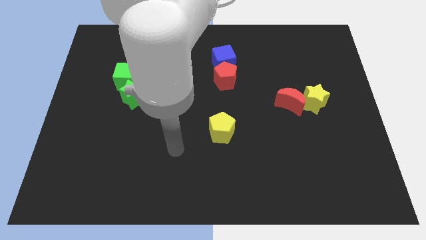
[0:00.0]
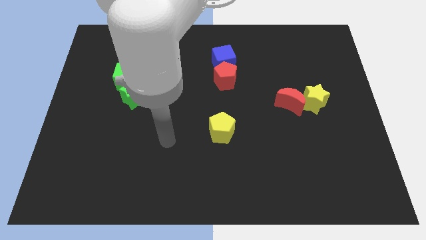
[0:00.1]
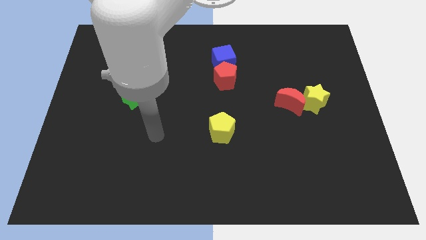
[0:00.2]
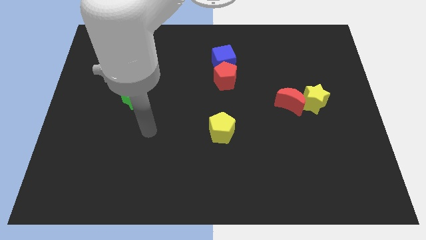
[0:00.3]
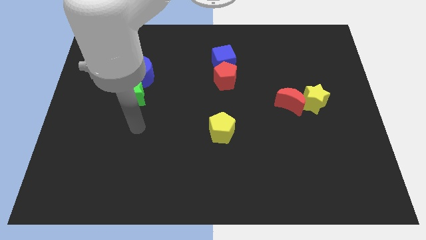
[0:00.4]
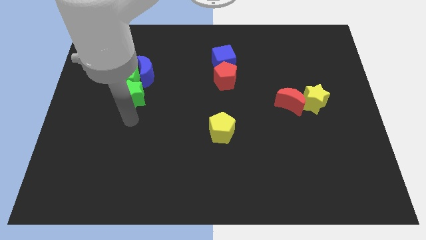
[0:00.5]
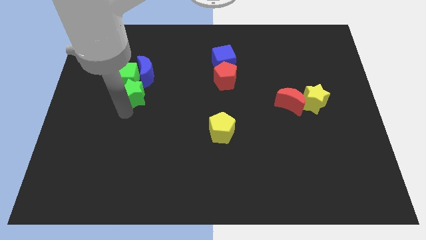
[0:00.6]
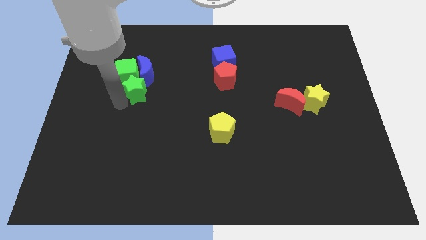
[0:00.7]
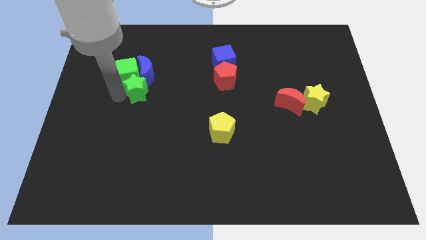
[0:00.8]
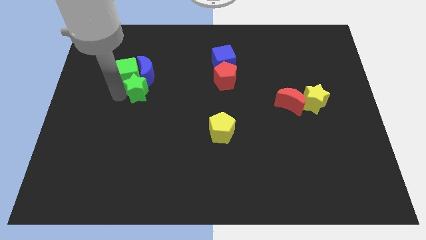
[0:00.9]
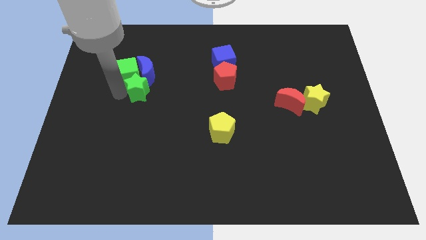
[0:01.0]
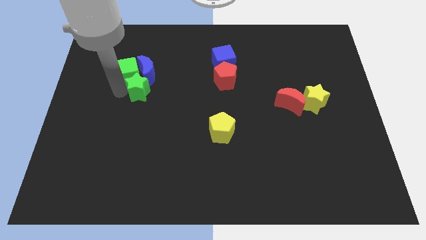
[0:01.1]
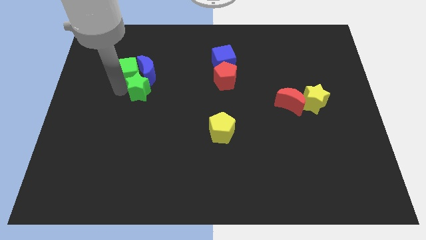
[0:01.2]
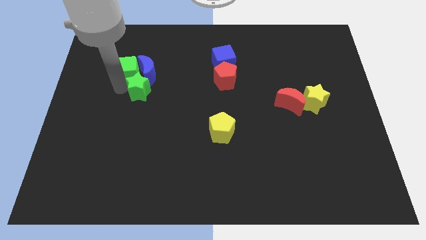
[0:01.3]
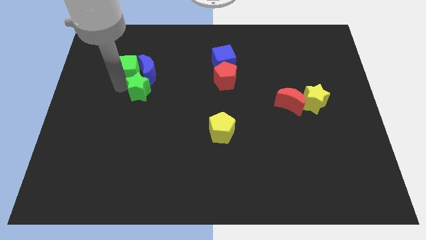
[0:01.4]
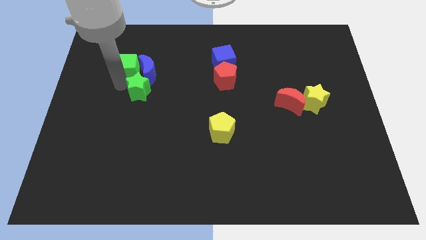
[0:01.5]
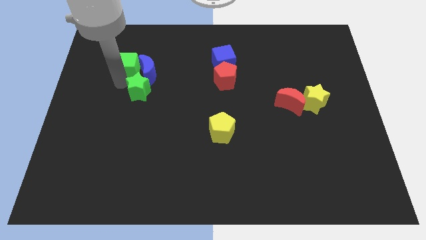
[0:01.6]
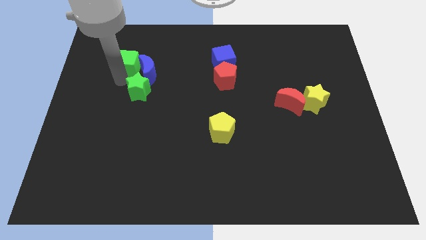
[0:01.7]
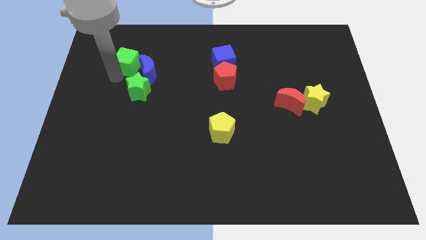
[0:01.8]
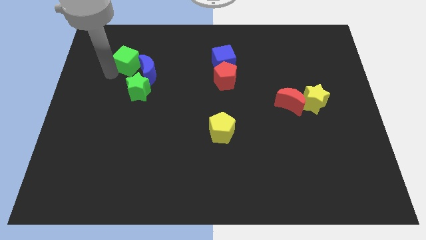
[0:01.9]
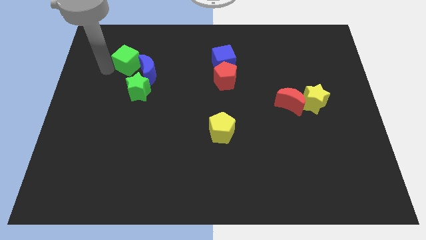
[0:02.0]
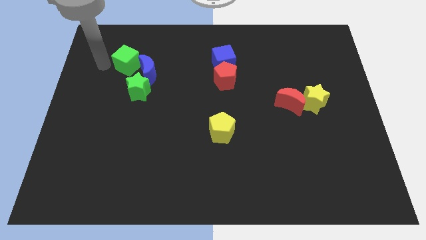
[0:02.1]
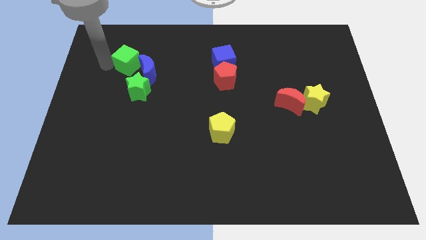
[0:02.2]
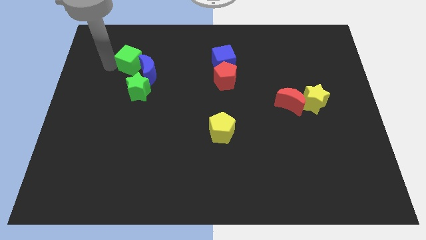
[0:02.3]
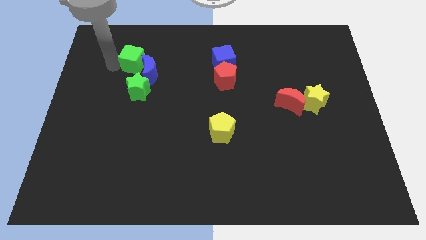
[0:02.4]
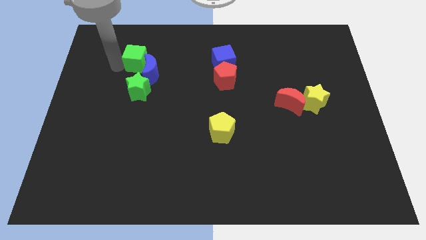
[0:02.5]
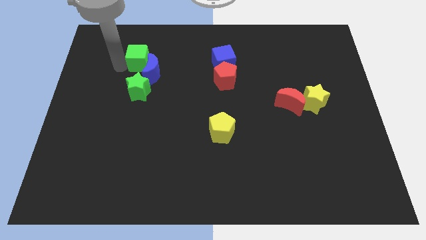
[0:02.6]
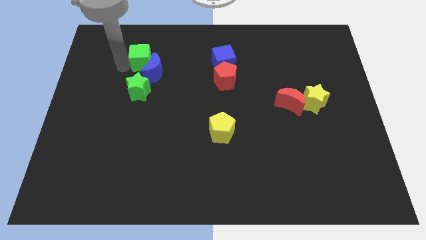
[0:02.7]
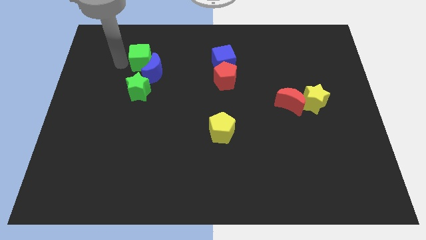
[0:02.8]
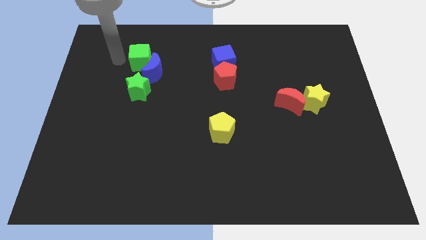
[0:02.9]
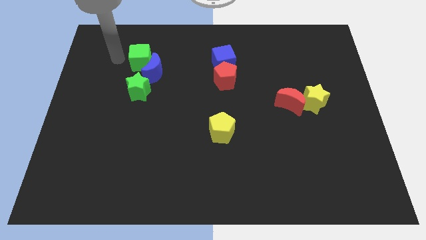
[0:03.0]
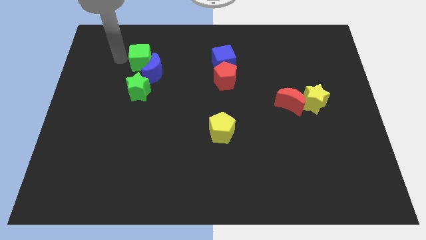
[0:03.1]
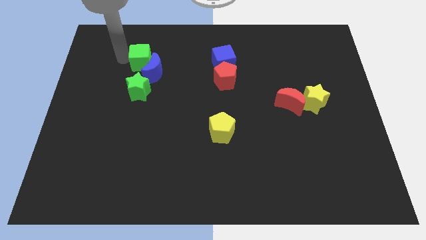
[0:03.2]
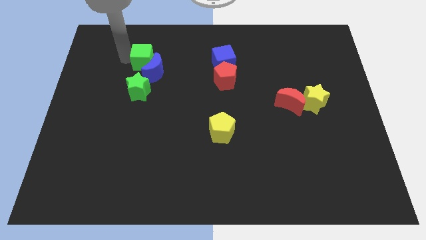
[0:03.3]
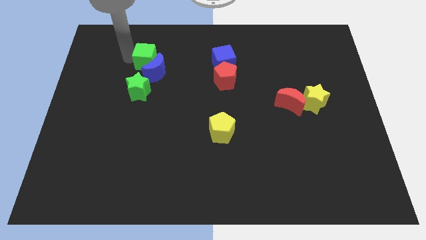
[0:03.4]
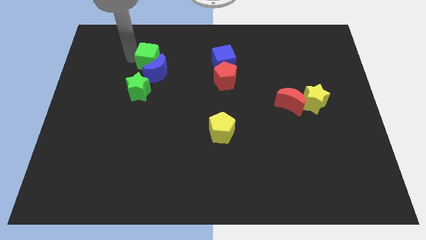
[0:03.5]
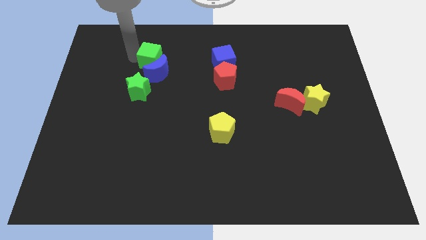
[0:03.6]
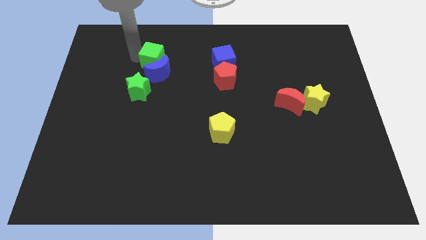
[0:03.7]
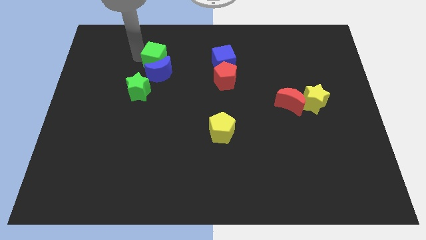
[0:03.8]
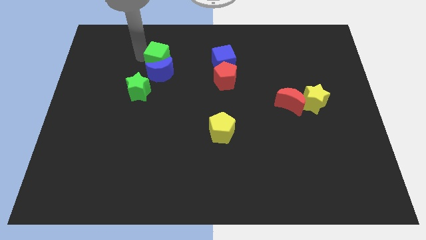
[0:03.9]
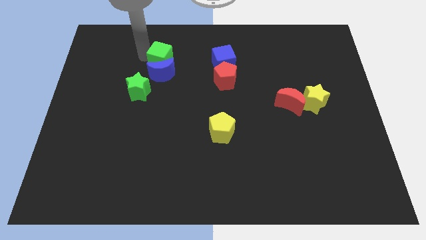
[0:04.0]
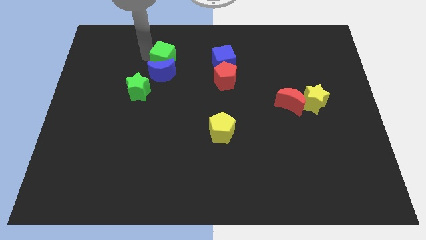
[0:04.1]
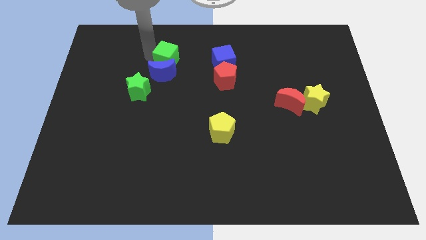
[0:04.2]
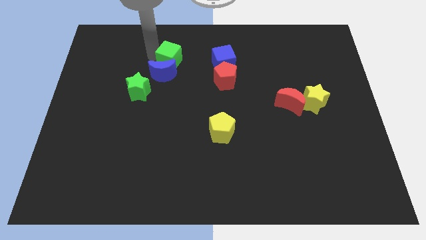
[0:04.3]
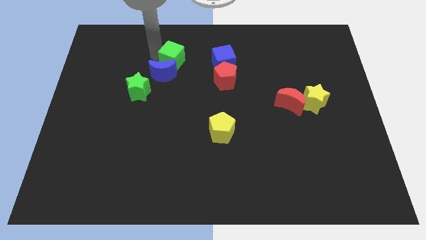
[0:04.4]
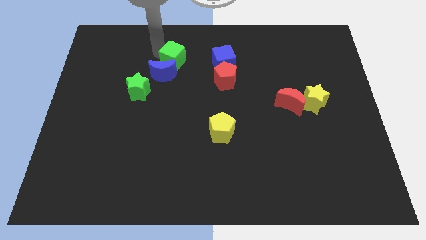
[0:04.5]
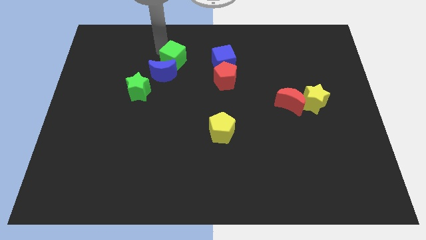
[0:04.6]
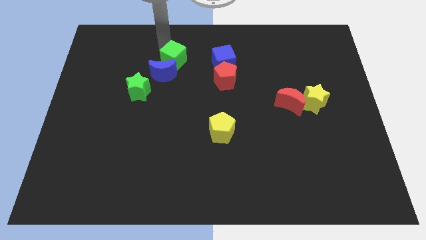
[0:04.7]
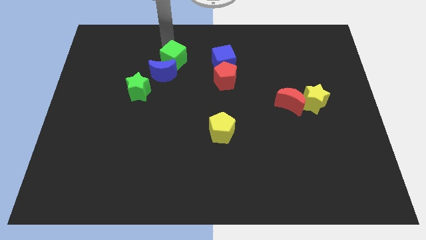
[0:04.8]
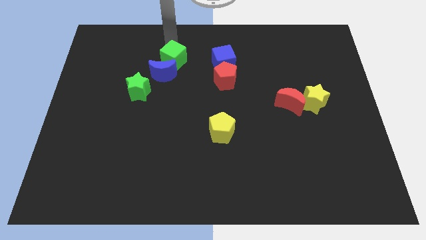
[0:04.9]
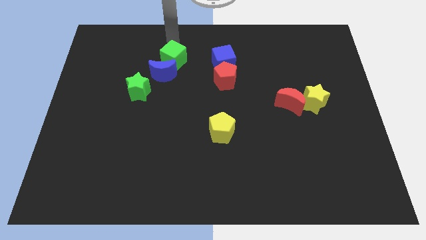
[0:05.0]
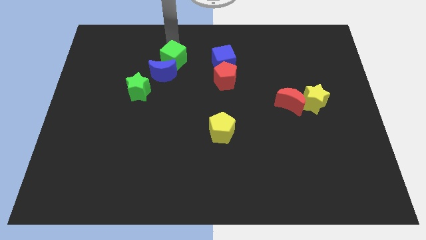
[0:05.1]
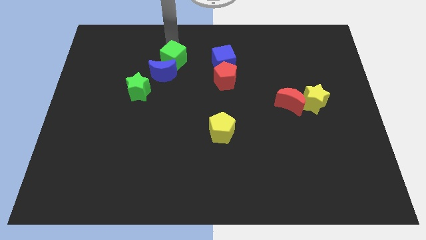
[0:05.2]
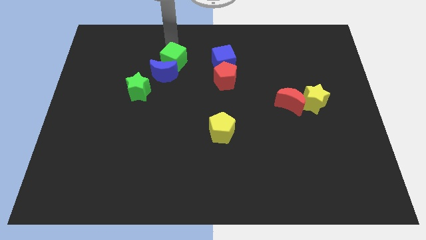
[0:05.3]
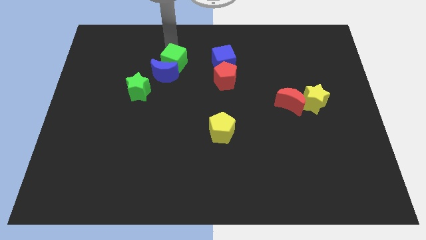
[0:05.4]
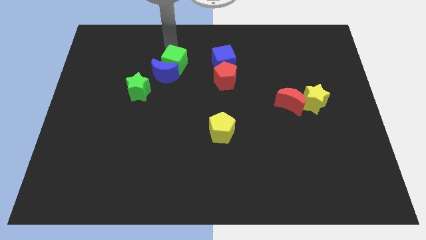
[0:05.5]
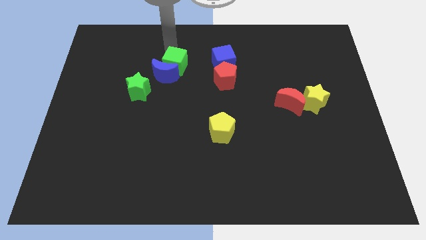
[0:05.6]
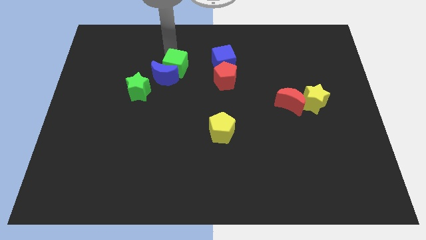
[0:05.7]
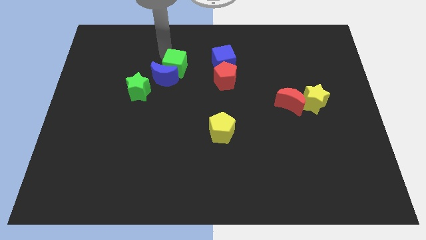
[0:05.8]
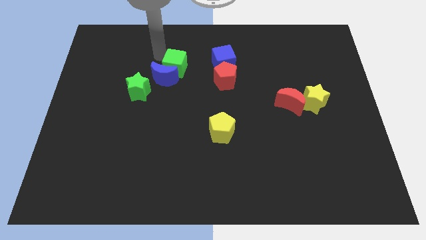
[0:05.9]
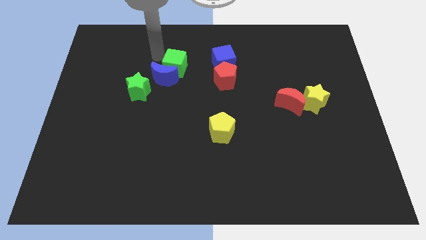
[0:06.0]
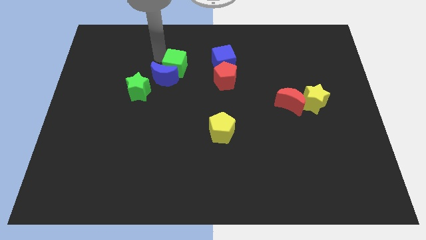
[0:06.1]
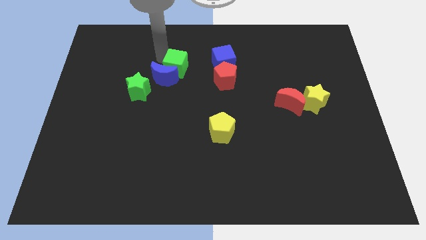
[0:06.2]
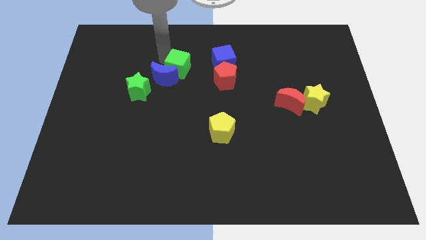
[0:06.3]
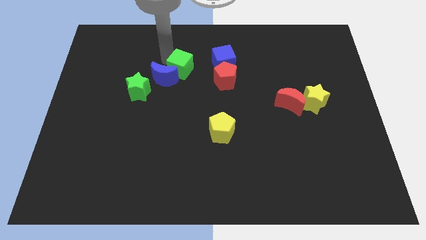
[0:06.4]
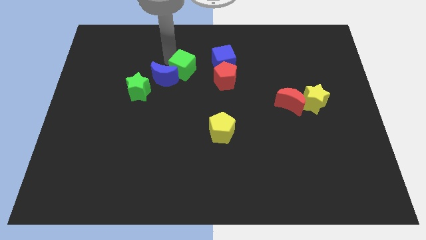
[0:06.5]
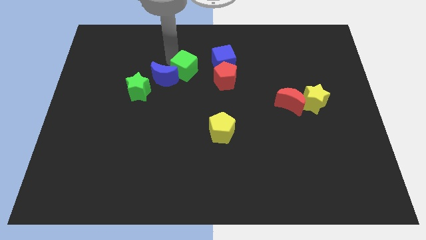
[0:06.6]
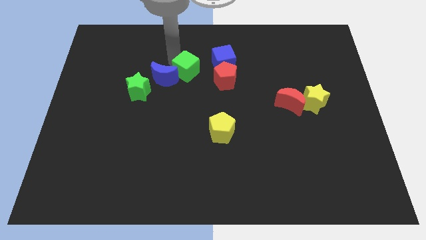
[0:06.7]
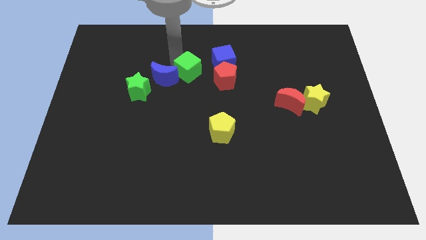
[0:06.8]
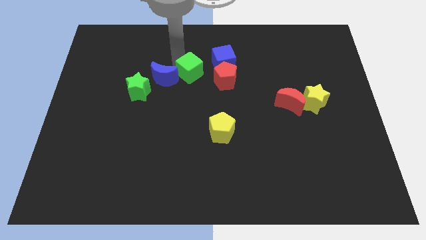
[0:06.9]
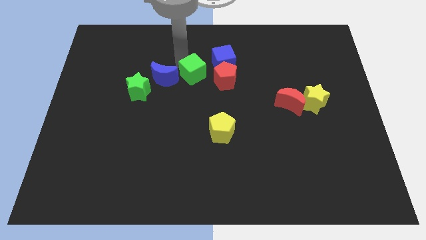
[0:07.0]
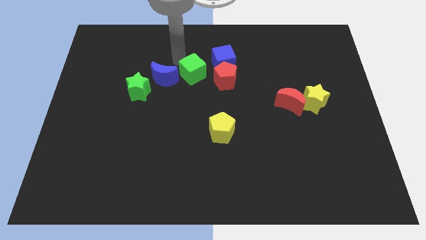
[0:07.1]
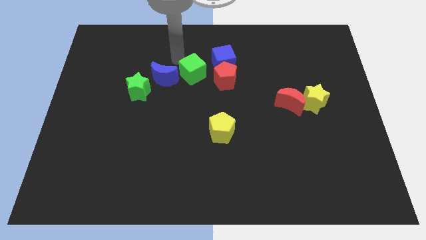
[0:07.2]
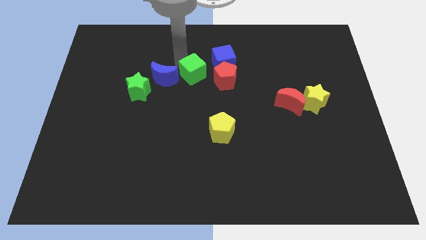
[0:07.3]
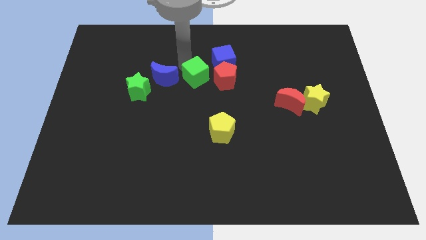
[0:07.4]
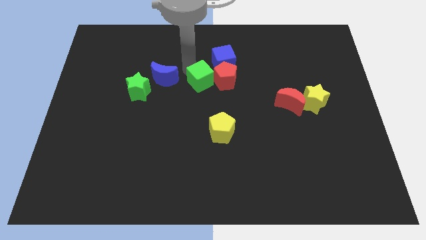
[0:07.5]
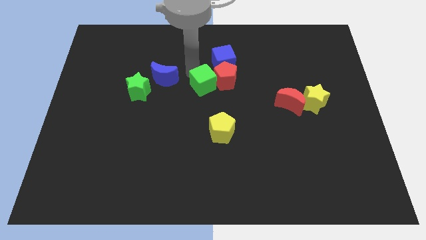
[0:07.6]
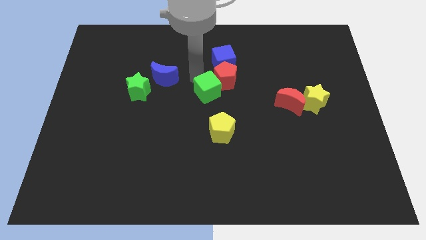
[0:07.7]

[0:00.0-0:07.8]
slide the green cube to the right
